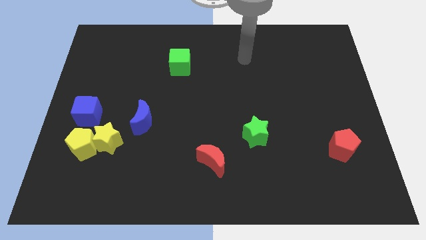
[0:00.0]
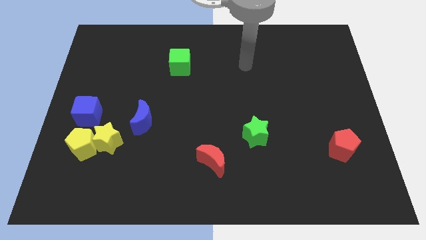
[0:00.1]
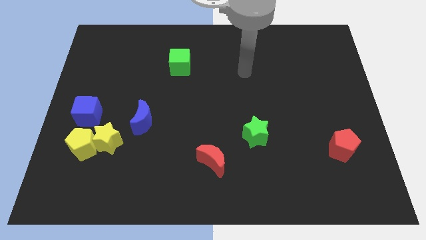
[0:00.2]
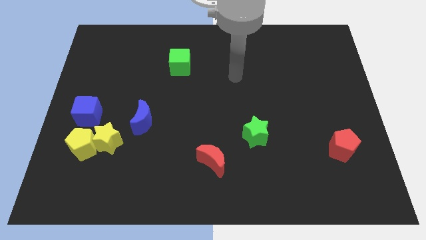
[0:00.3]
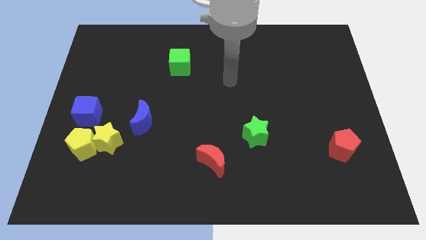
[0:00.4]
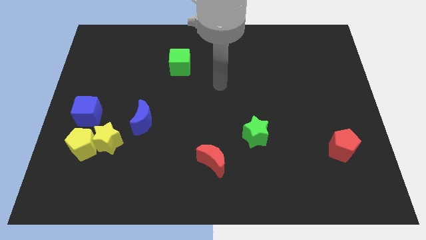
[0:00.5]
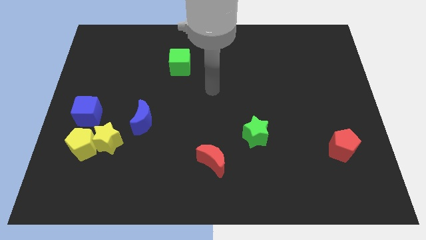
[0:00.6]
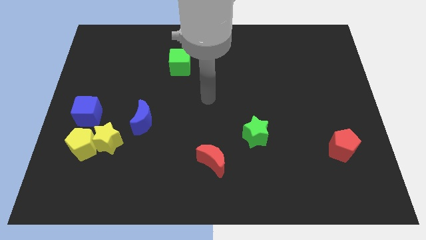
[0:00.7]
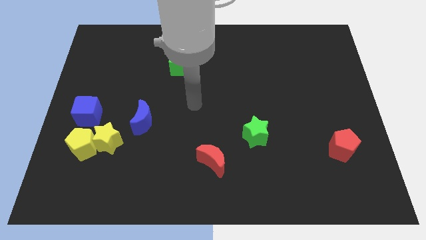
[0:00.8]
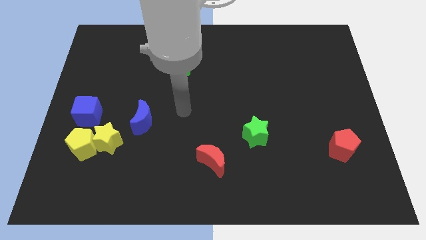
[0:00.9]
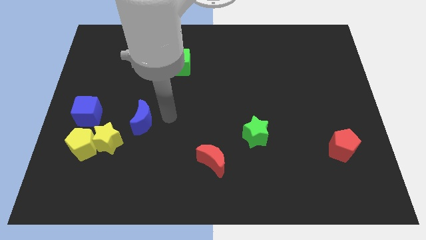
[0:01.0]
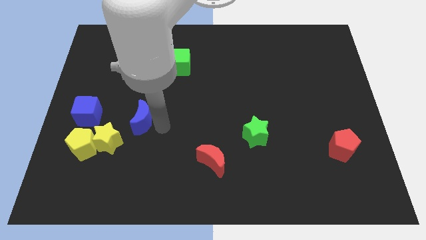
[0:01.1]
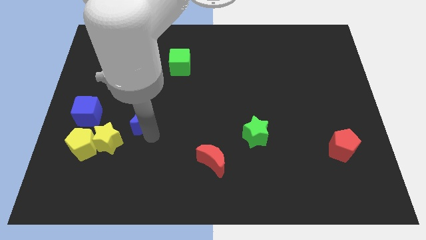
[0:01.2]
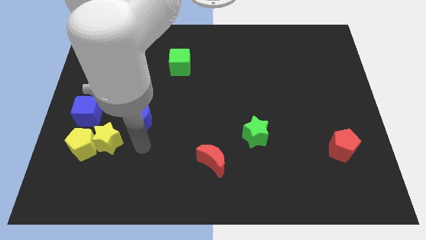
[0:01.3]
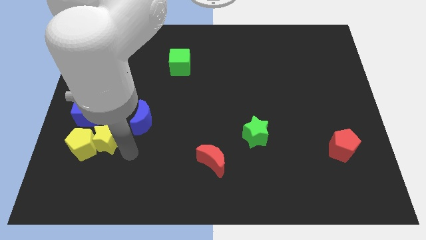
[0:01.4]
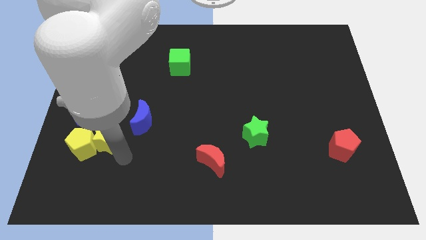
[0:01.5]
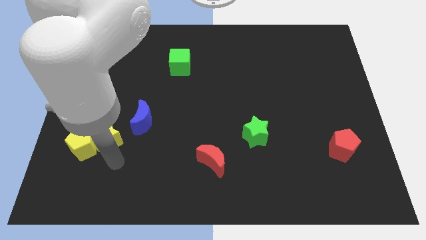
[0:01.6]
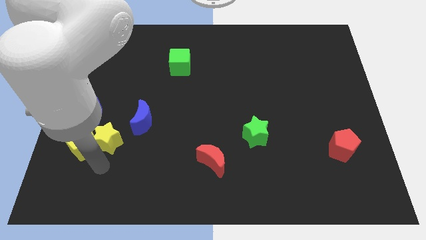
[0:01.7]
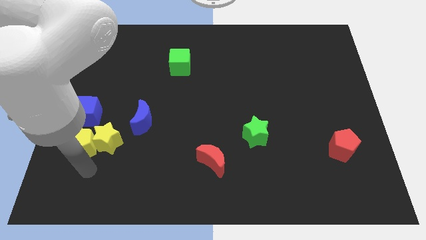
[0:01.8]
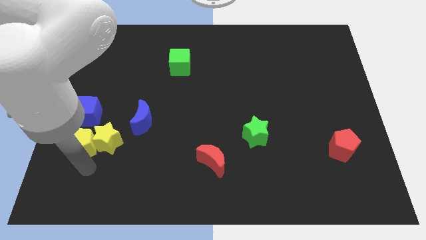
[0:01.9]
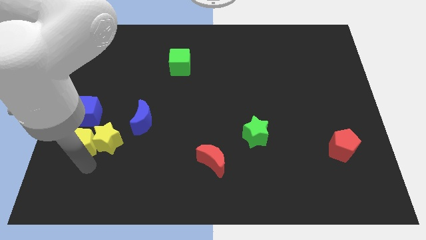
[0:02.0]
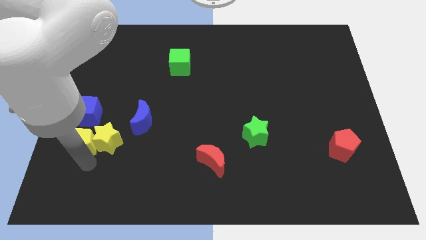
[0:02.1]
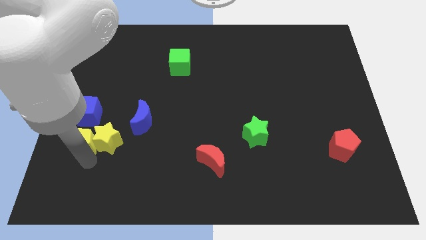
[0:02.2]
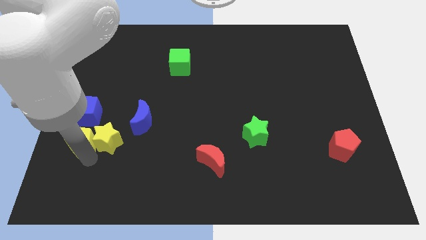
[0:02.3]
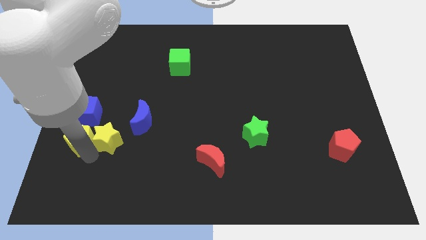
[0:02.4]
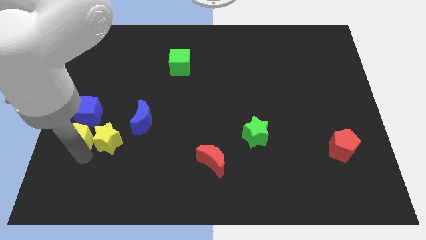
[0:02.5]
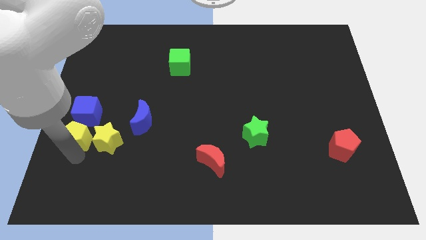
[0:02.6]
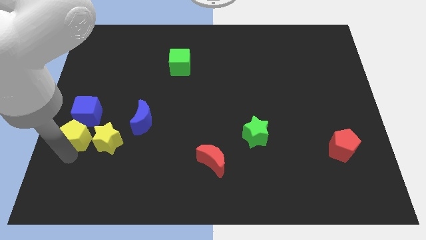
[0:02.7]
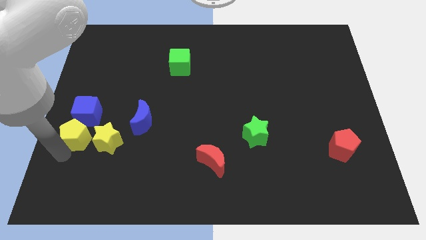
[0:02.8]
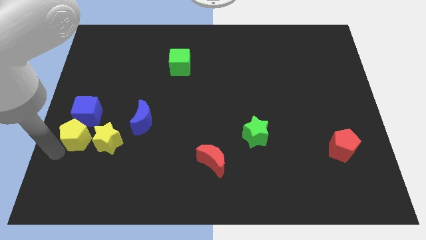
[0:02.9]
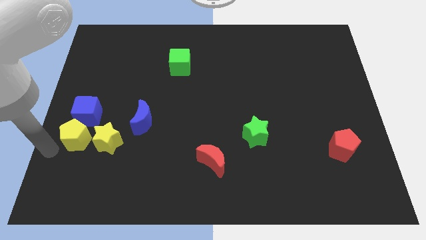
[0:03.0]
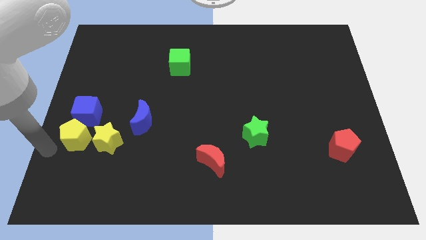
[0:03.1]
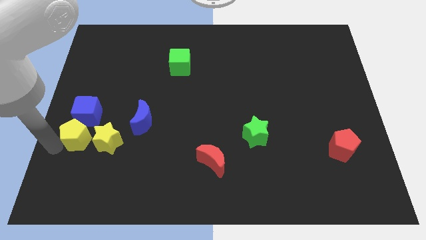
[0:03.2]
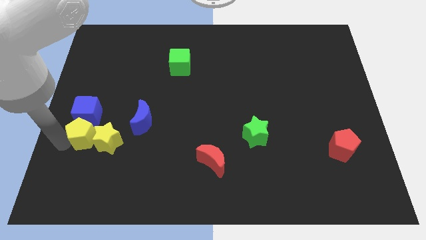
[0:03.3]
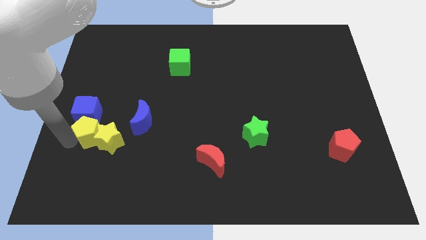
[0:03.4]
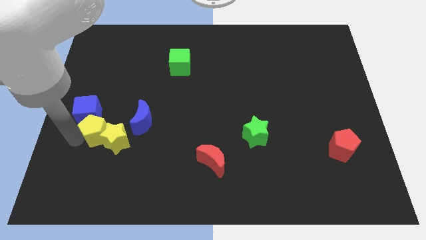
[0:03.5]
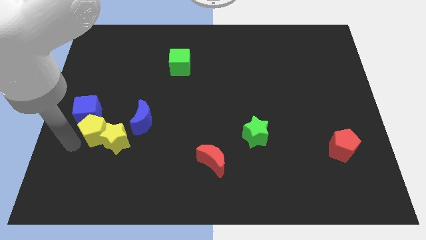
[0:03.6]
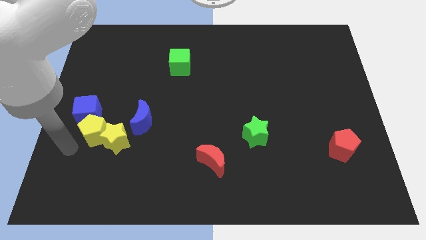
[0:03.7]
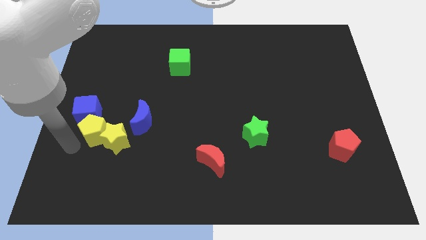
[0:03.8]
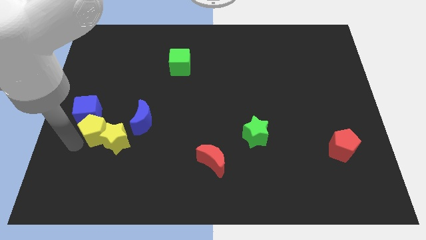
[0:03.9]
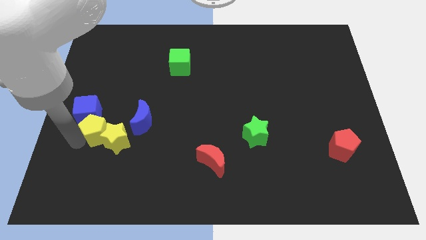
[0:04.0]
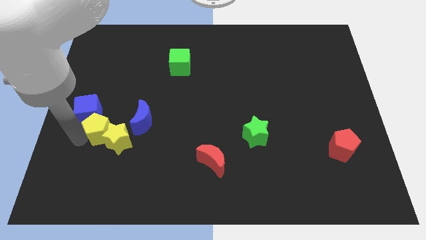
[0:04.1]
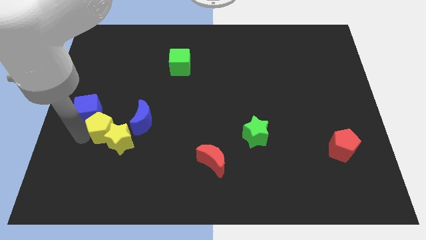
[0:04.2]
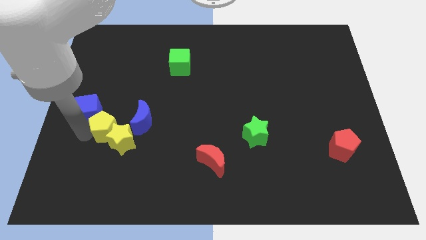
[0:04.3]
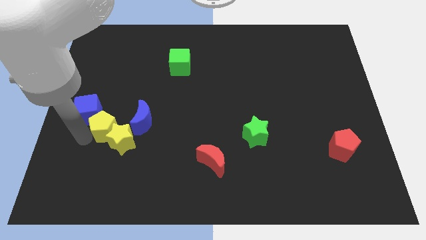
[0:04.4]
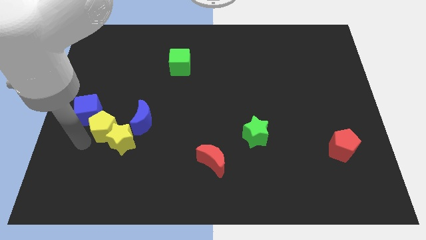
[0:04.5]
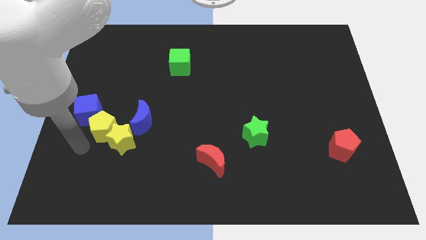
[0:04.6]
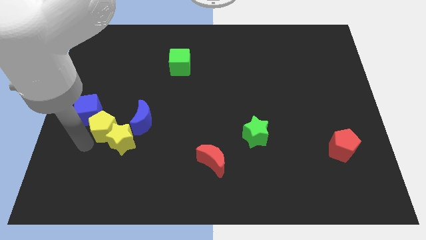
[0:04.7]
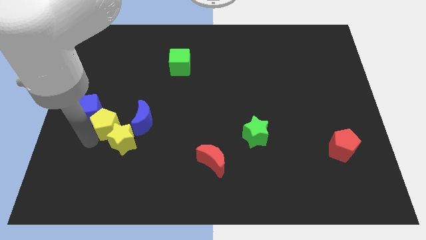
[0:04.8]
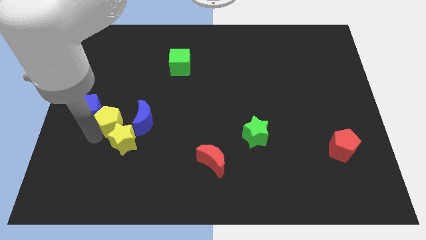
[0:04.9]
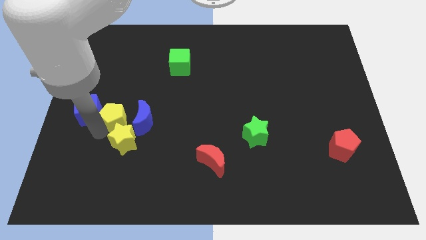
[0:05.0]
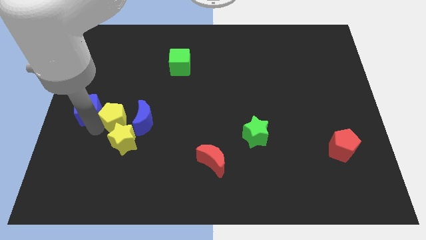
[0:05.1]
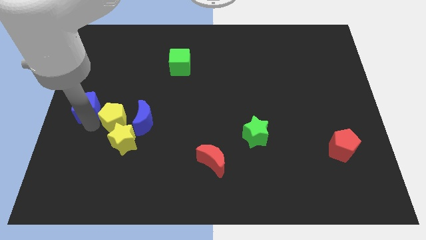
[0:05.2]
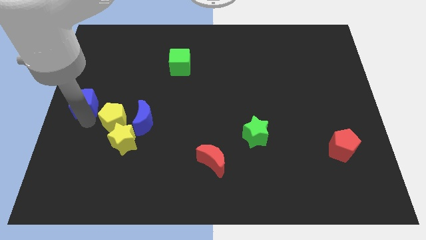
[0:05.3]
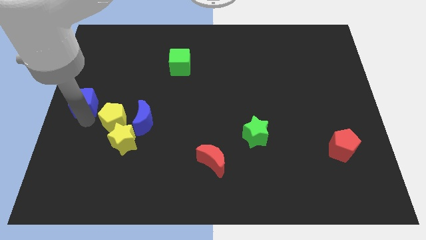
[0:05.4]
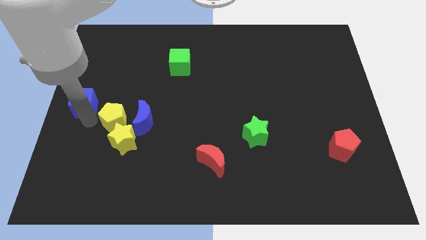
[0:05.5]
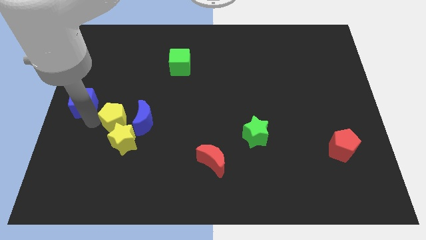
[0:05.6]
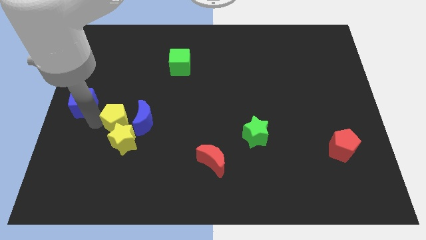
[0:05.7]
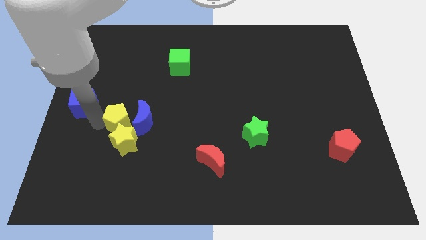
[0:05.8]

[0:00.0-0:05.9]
push the yellow pentagon towards the blue moon

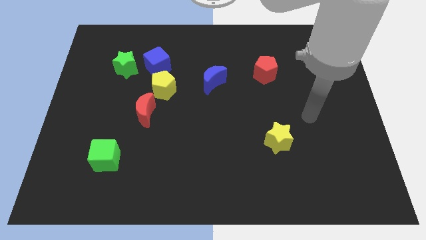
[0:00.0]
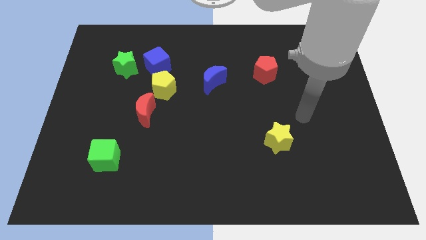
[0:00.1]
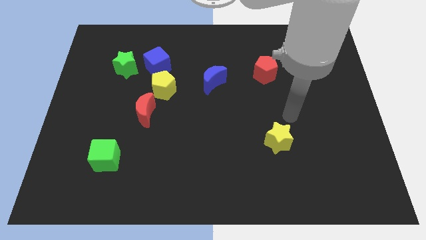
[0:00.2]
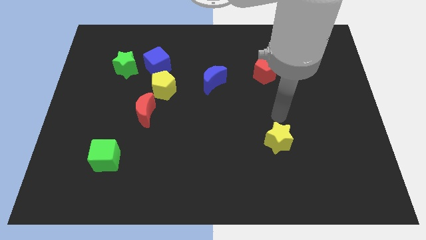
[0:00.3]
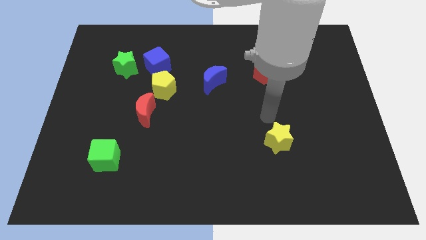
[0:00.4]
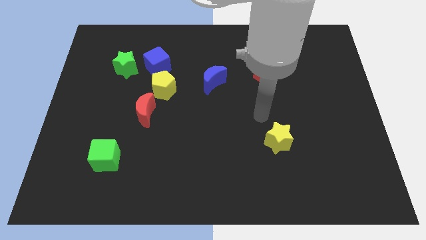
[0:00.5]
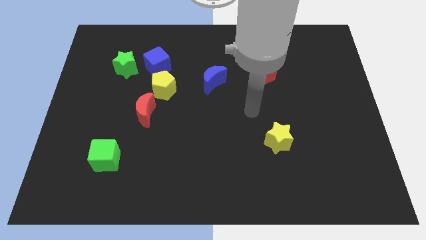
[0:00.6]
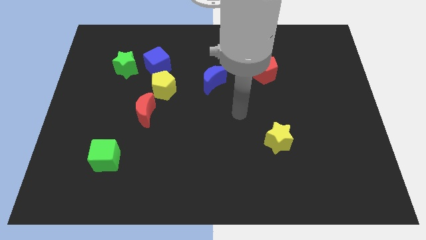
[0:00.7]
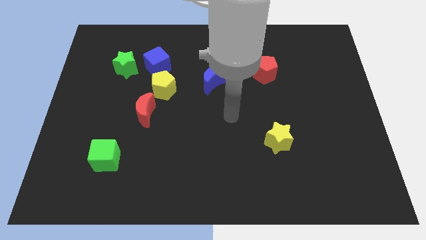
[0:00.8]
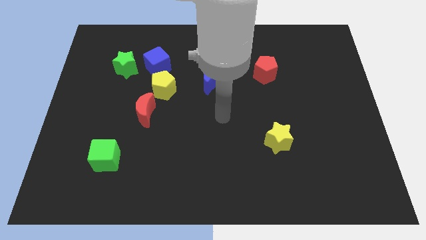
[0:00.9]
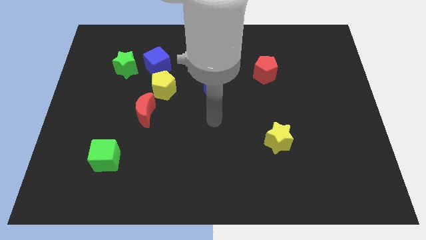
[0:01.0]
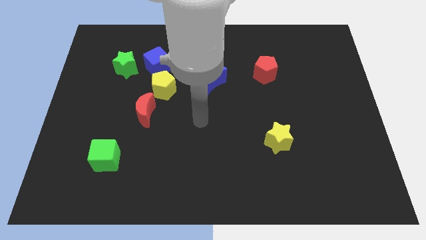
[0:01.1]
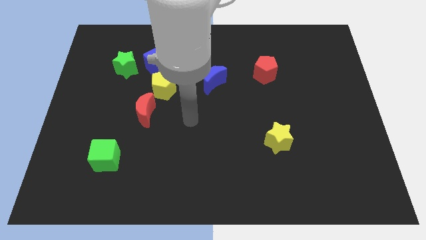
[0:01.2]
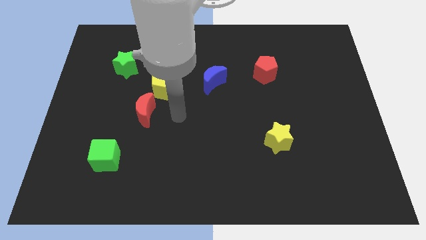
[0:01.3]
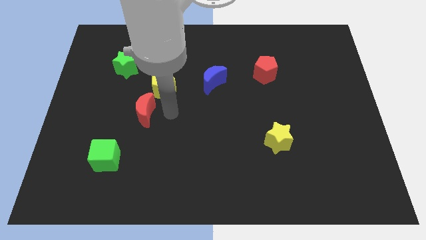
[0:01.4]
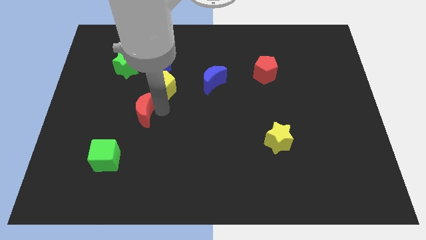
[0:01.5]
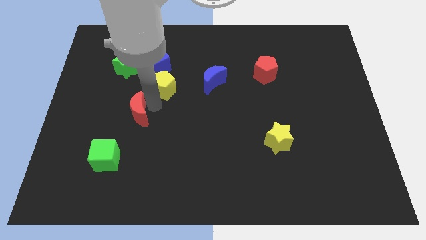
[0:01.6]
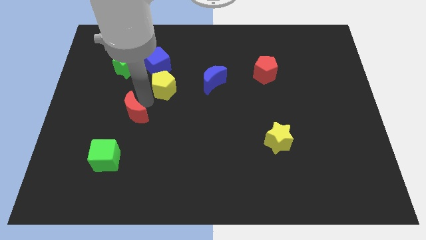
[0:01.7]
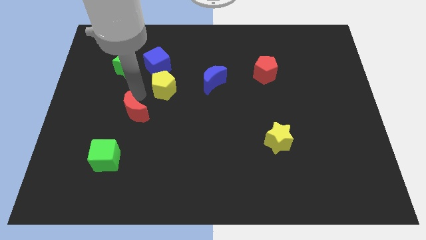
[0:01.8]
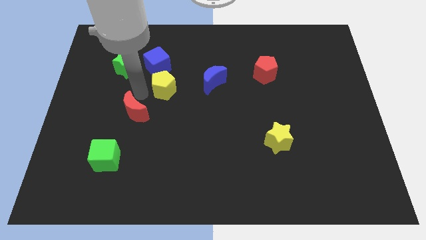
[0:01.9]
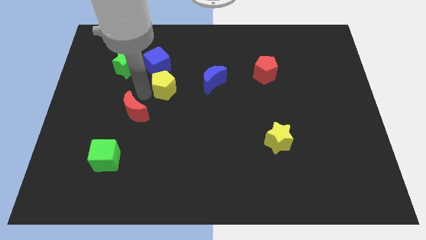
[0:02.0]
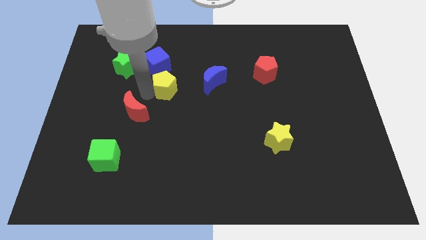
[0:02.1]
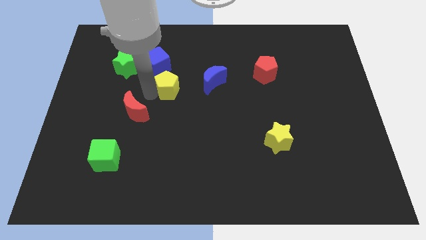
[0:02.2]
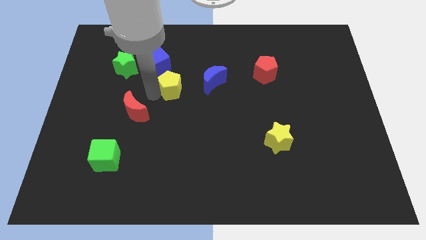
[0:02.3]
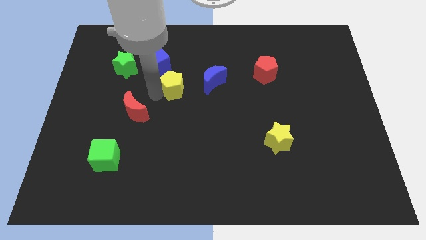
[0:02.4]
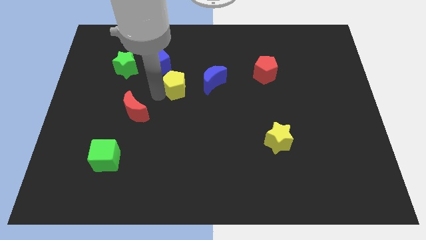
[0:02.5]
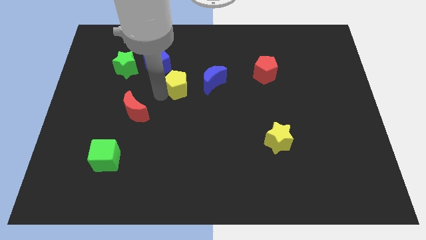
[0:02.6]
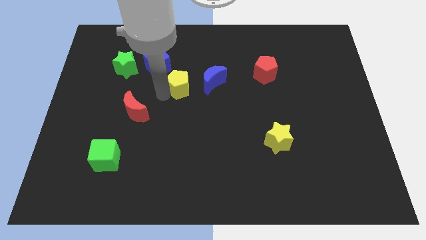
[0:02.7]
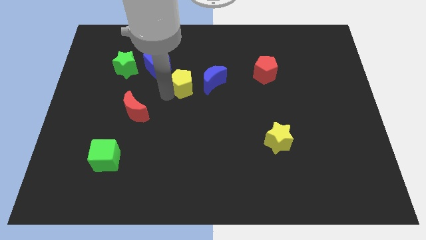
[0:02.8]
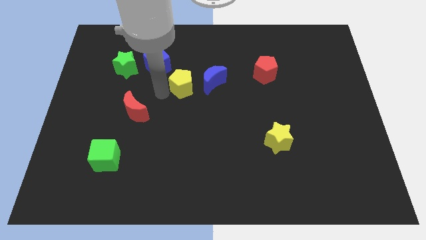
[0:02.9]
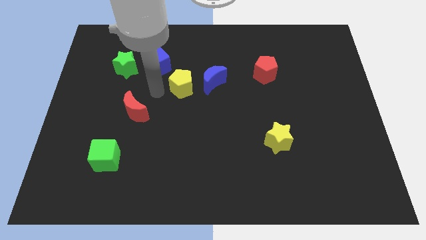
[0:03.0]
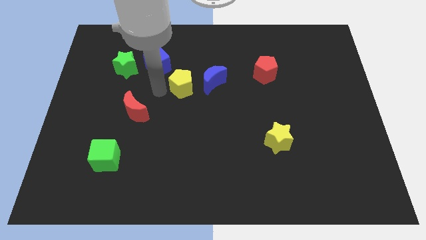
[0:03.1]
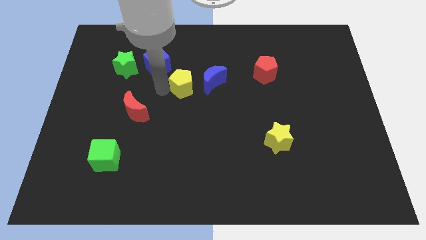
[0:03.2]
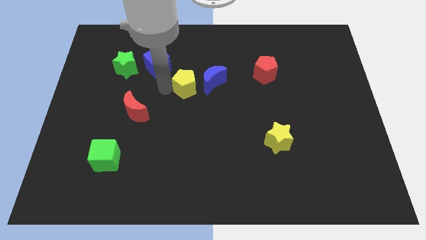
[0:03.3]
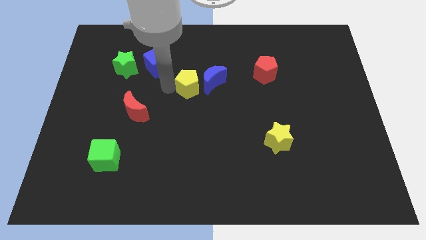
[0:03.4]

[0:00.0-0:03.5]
move the yellow pentagon towards the blue moon
